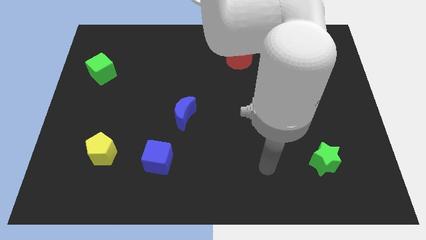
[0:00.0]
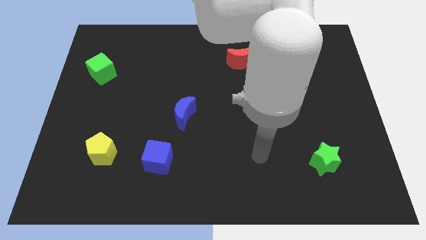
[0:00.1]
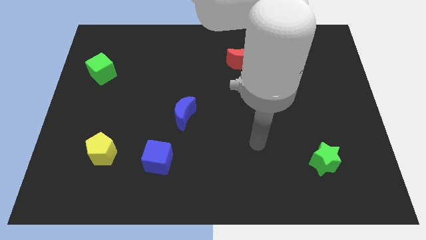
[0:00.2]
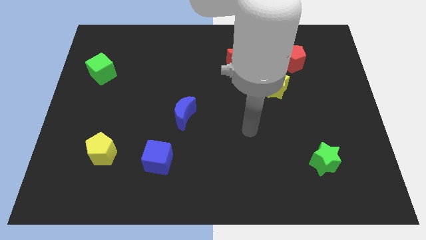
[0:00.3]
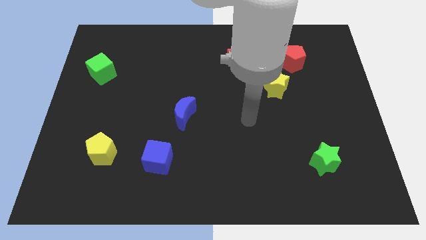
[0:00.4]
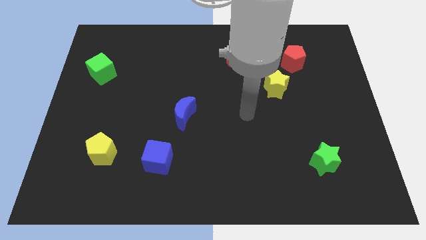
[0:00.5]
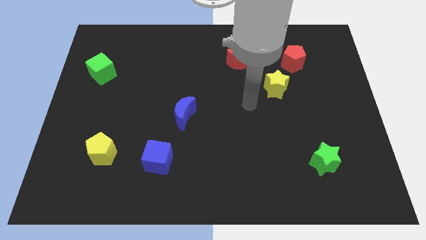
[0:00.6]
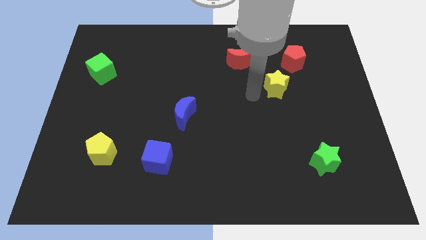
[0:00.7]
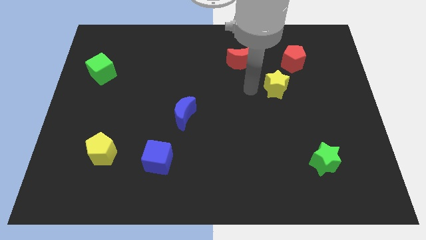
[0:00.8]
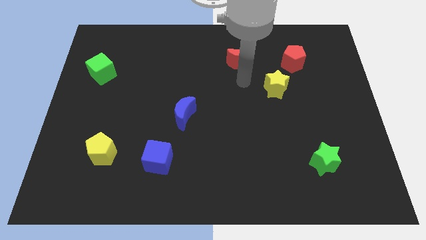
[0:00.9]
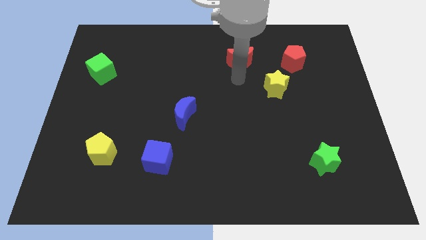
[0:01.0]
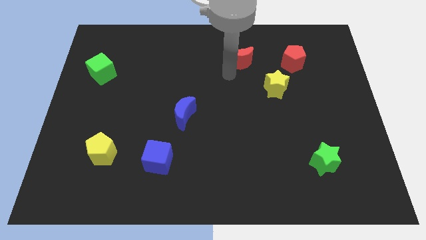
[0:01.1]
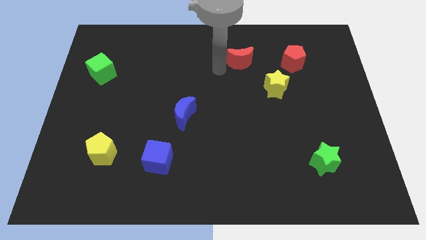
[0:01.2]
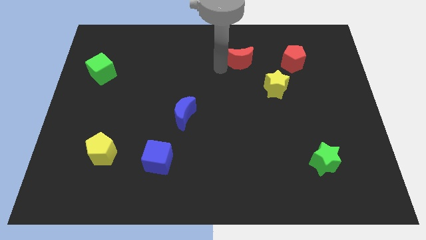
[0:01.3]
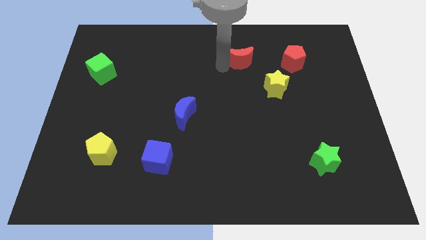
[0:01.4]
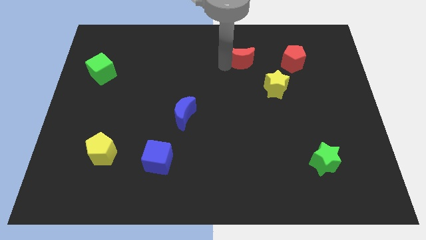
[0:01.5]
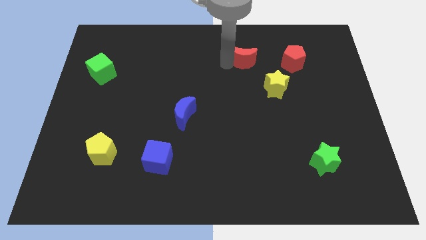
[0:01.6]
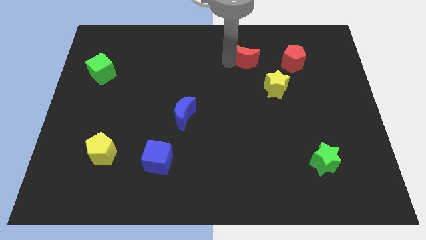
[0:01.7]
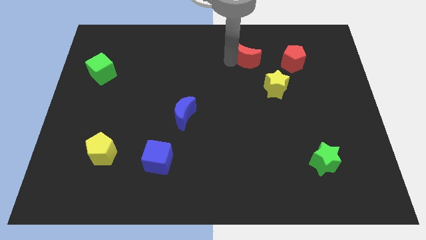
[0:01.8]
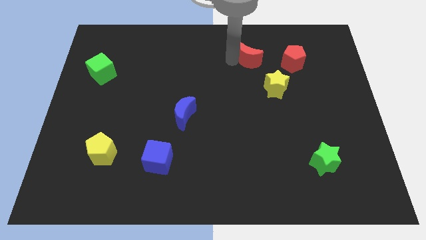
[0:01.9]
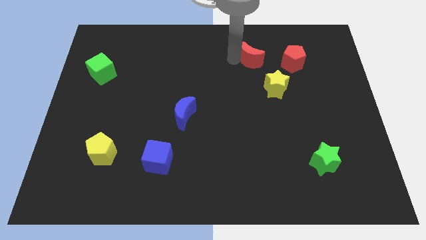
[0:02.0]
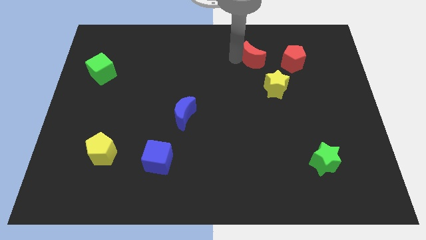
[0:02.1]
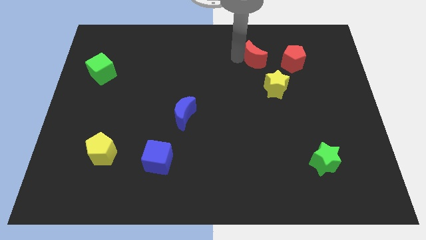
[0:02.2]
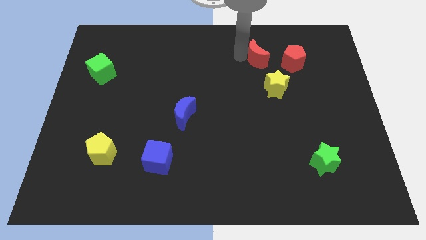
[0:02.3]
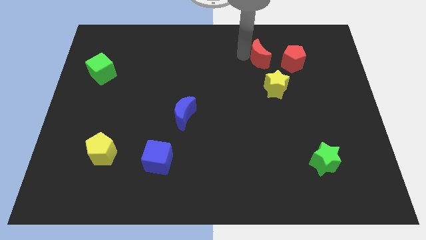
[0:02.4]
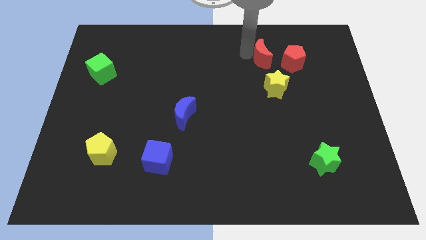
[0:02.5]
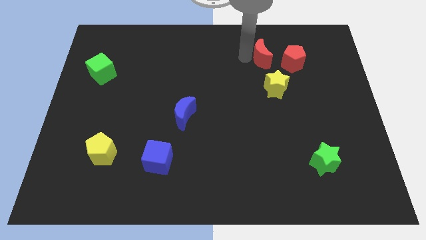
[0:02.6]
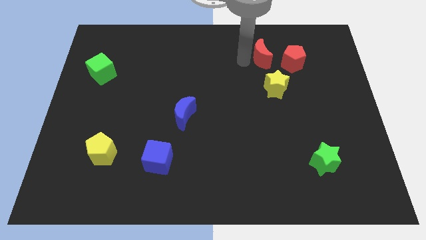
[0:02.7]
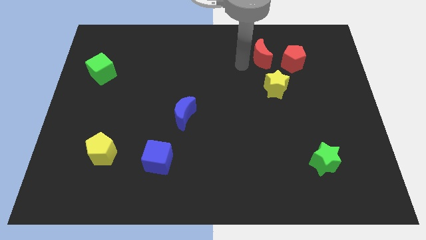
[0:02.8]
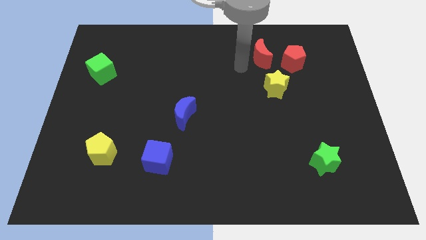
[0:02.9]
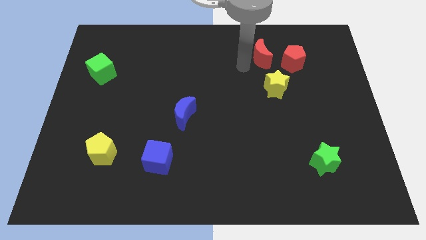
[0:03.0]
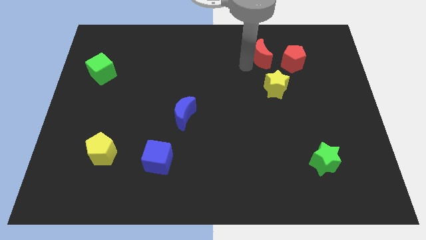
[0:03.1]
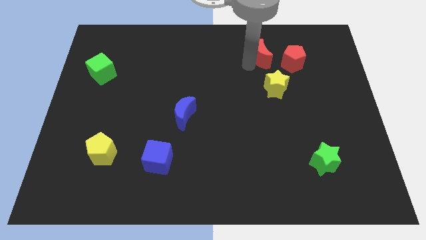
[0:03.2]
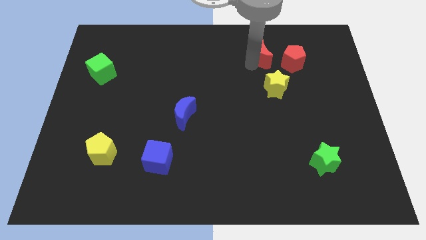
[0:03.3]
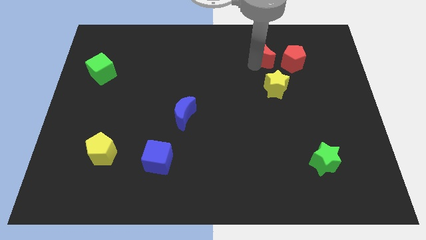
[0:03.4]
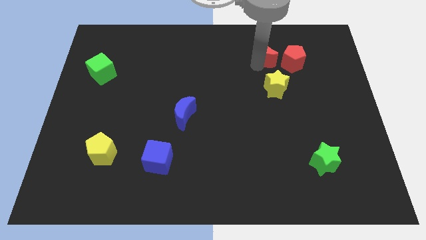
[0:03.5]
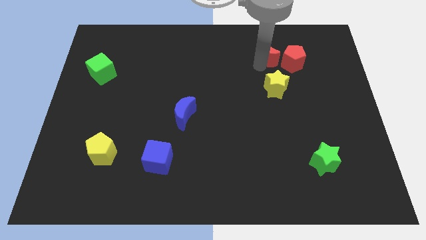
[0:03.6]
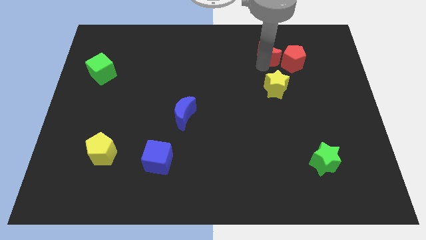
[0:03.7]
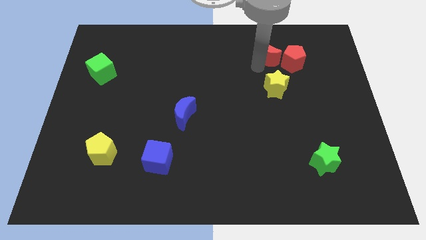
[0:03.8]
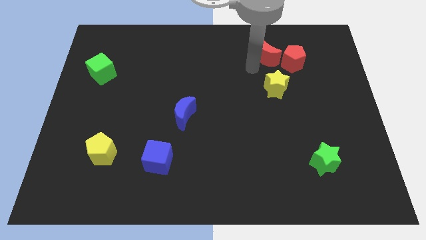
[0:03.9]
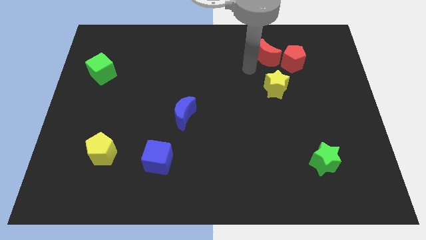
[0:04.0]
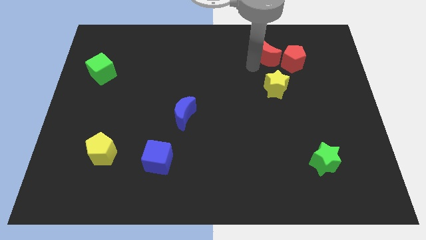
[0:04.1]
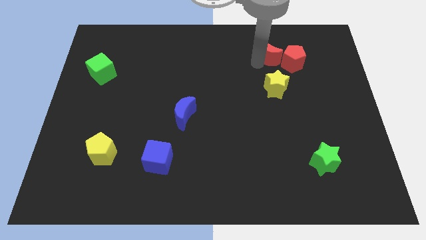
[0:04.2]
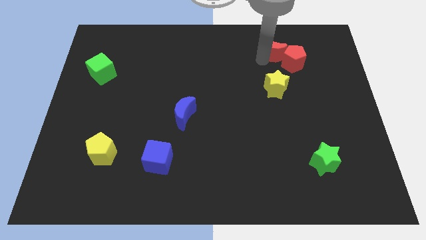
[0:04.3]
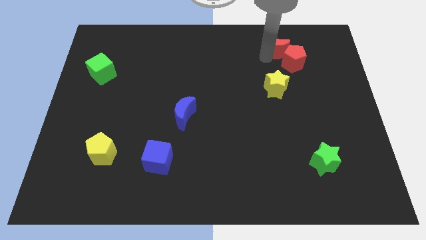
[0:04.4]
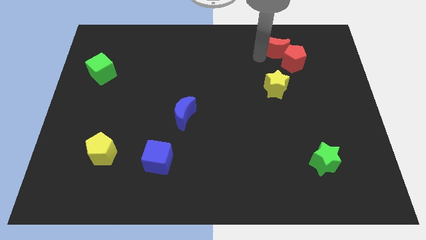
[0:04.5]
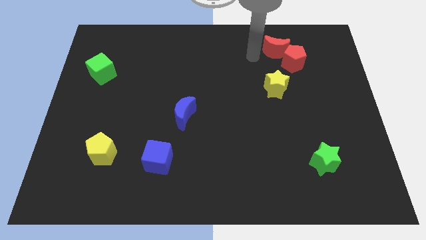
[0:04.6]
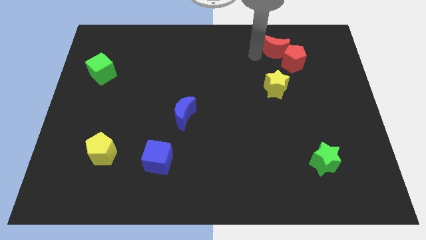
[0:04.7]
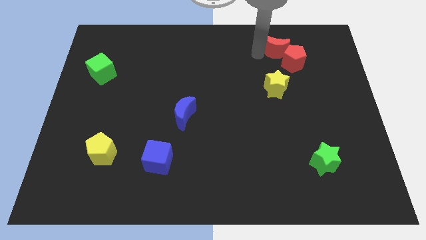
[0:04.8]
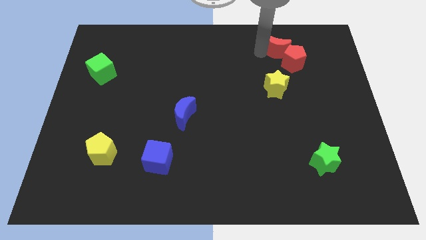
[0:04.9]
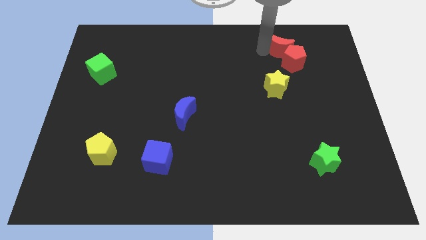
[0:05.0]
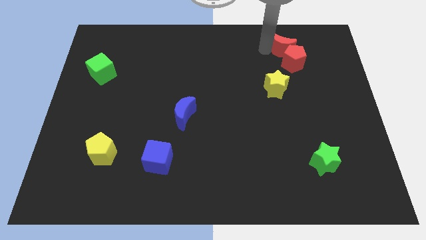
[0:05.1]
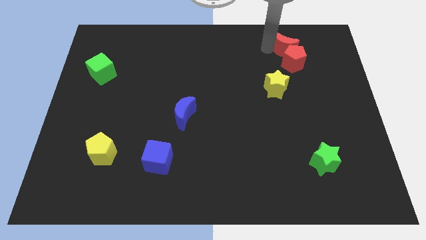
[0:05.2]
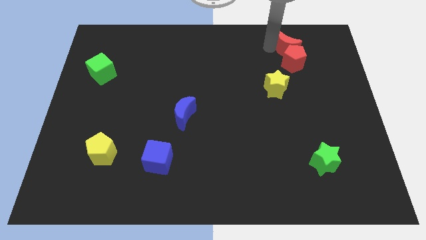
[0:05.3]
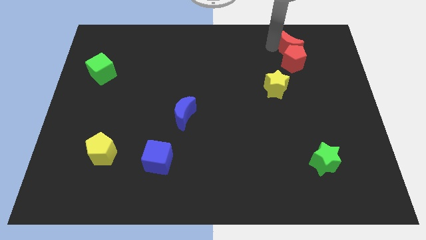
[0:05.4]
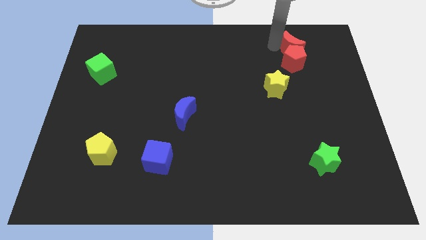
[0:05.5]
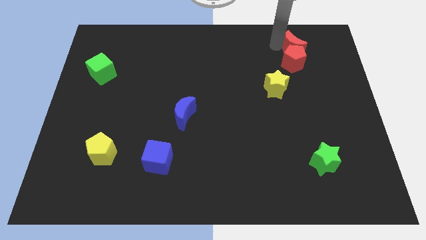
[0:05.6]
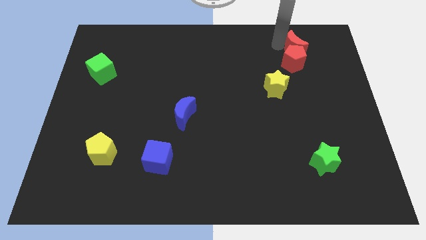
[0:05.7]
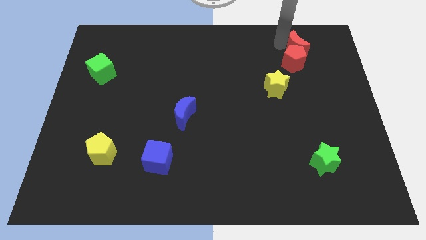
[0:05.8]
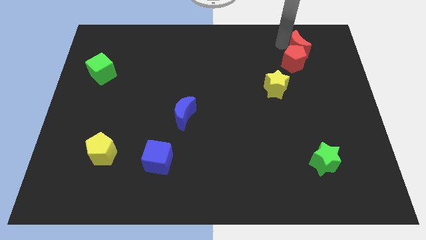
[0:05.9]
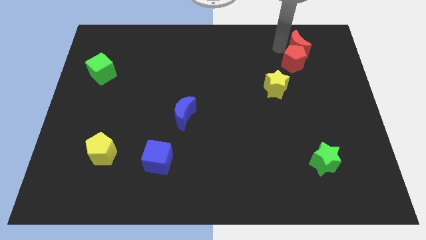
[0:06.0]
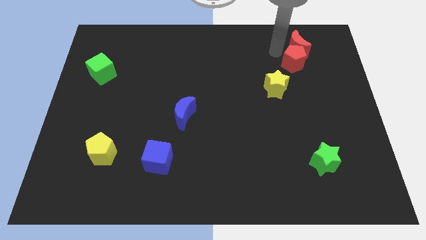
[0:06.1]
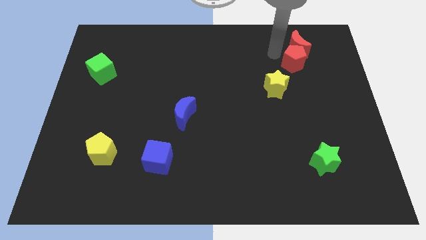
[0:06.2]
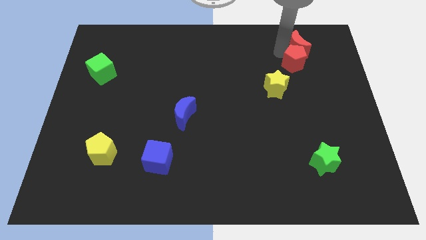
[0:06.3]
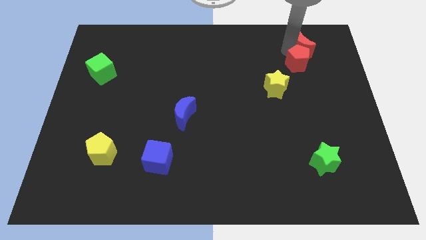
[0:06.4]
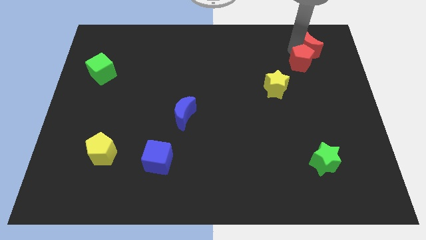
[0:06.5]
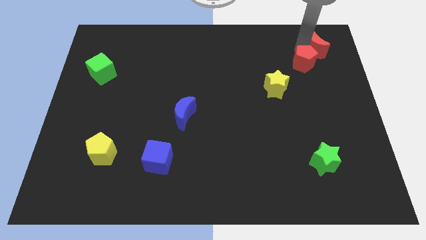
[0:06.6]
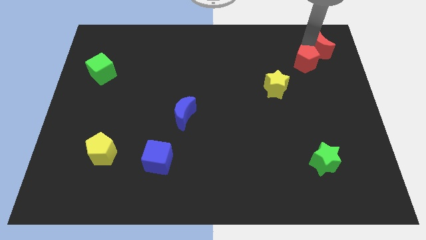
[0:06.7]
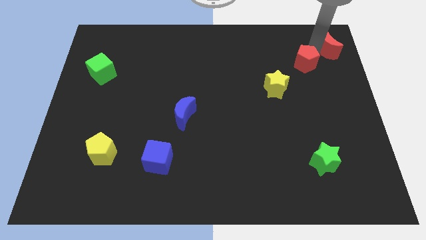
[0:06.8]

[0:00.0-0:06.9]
slide the red moon to the top right of the board
